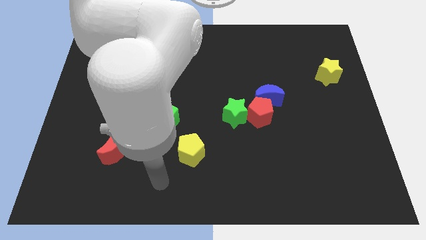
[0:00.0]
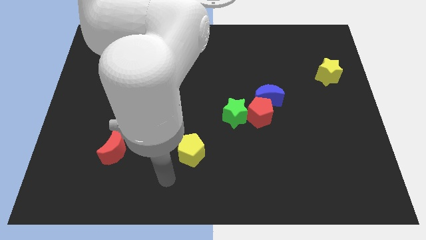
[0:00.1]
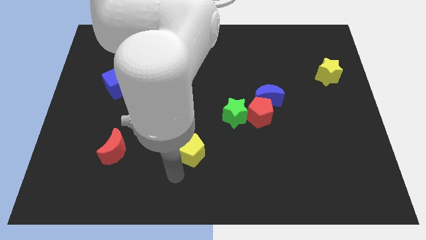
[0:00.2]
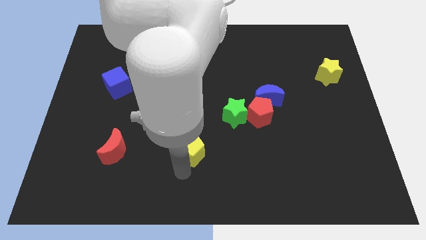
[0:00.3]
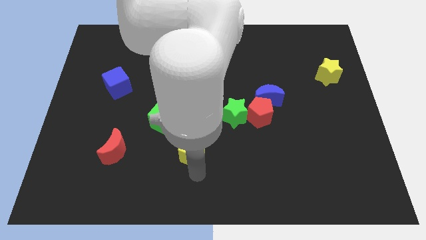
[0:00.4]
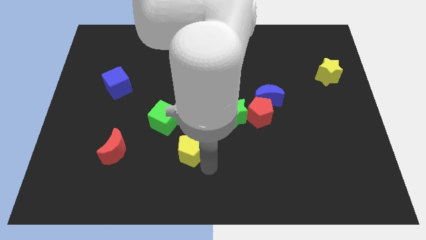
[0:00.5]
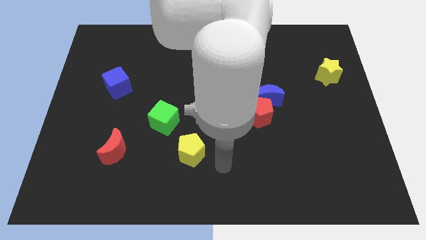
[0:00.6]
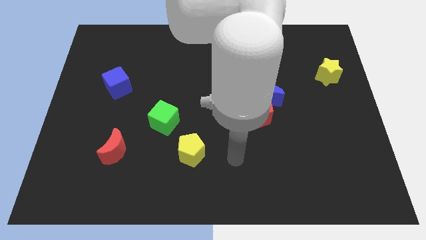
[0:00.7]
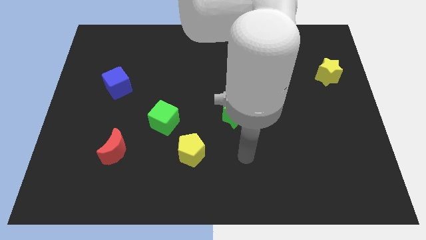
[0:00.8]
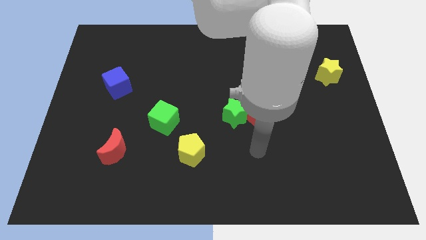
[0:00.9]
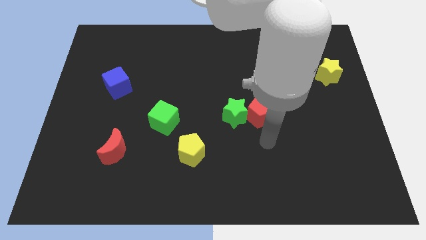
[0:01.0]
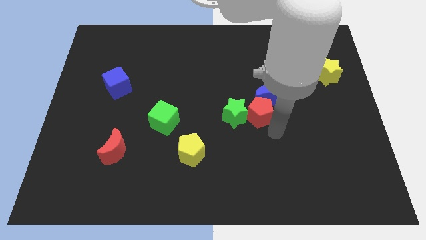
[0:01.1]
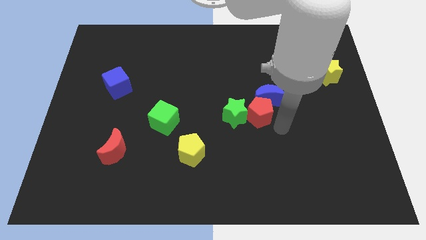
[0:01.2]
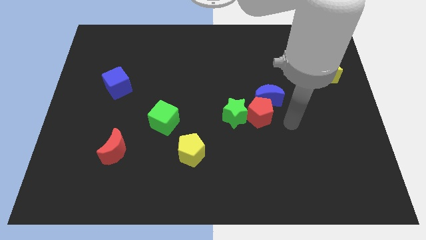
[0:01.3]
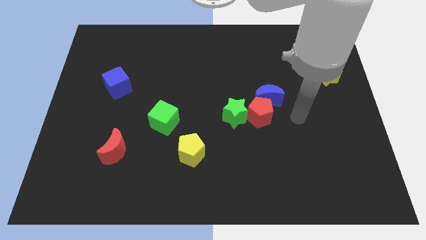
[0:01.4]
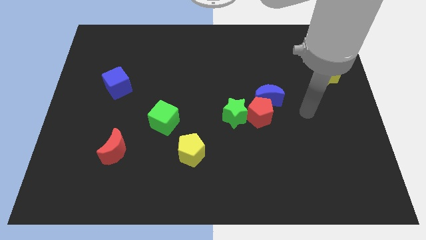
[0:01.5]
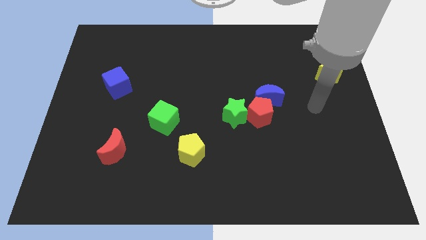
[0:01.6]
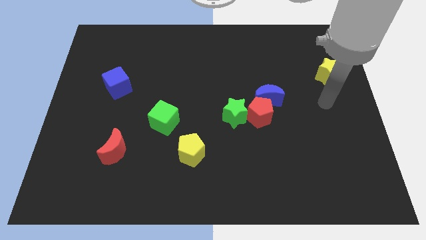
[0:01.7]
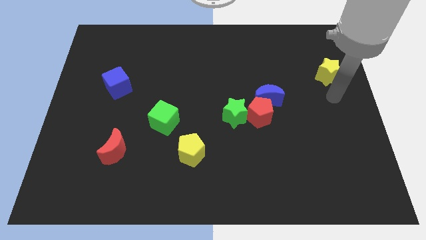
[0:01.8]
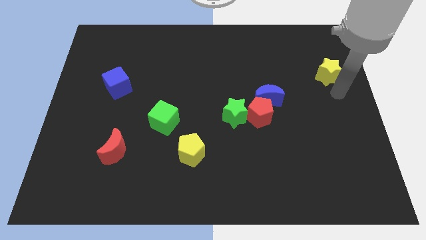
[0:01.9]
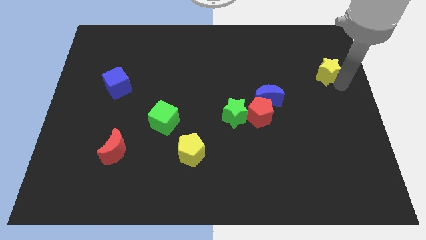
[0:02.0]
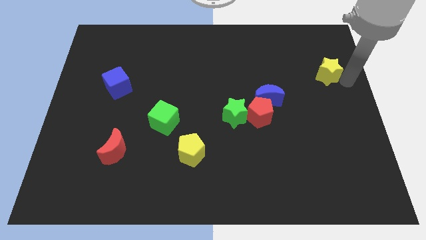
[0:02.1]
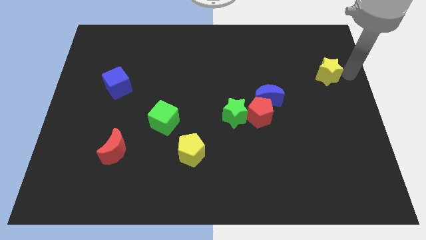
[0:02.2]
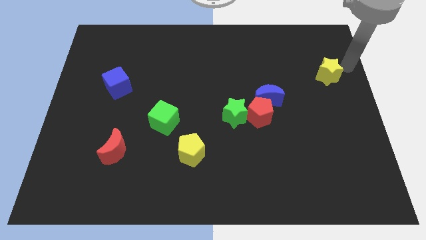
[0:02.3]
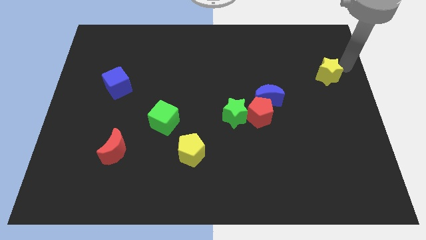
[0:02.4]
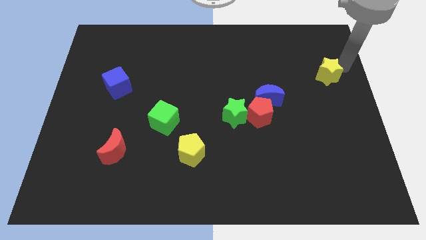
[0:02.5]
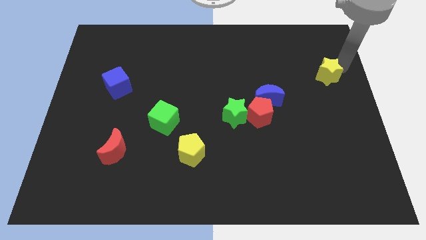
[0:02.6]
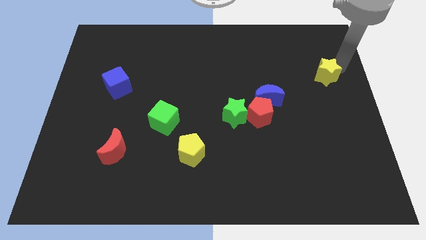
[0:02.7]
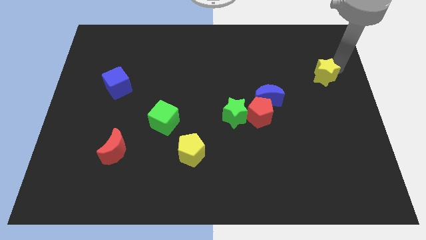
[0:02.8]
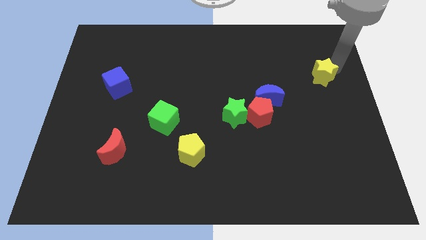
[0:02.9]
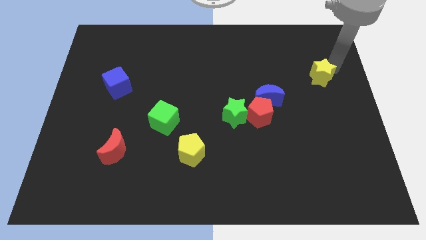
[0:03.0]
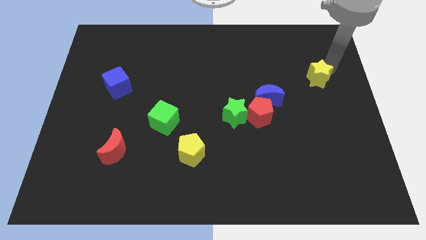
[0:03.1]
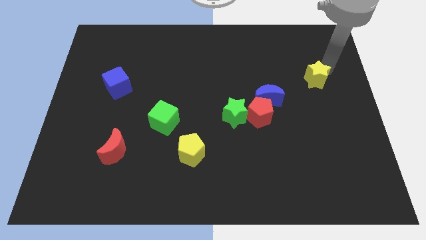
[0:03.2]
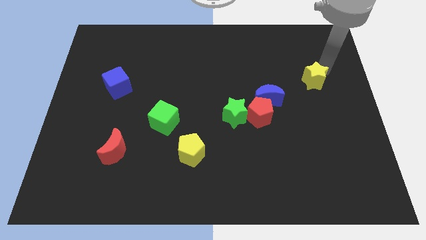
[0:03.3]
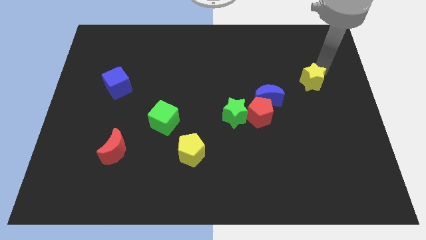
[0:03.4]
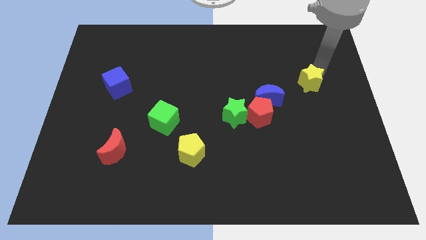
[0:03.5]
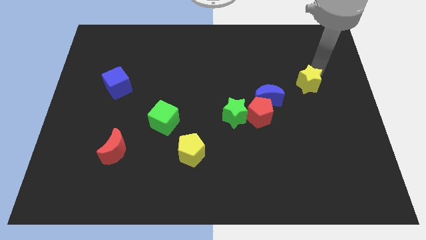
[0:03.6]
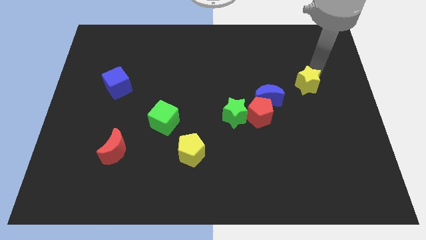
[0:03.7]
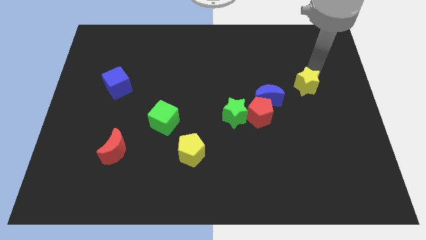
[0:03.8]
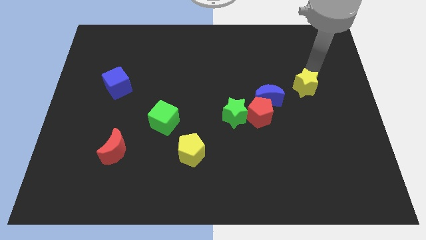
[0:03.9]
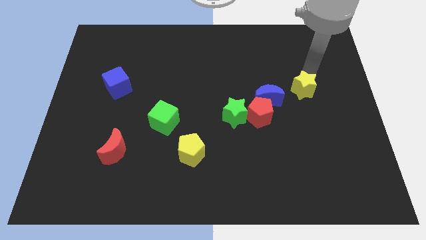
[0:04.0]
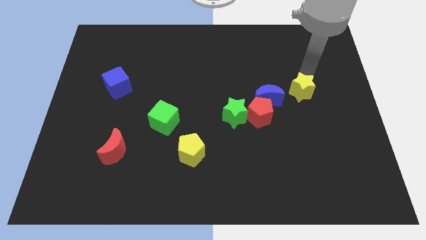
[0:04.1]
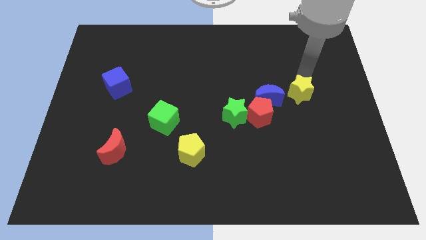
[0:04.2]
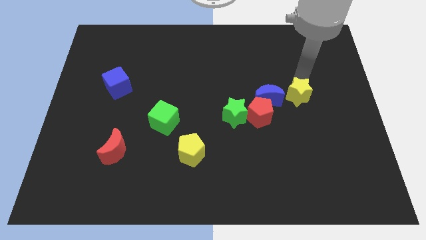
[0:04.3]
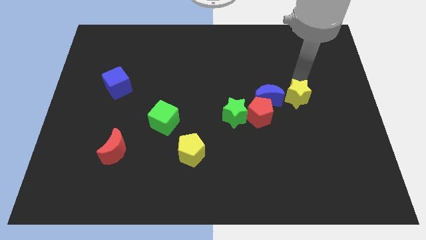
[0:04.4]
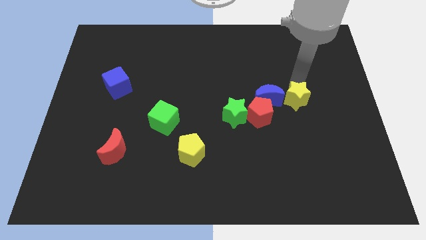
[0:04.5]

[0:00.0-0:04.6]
slide the yellow star to the bottom right side of the blue moon

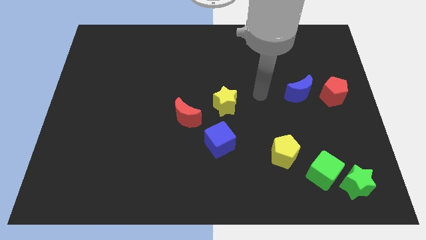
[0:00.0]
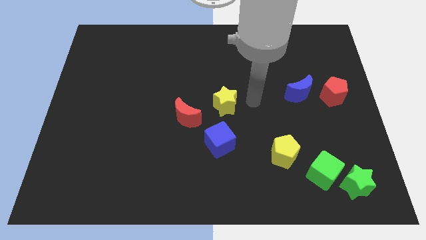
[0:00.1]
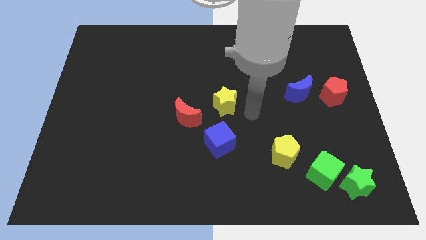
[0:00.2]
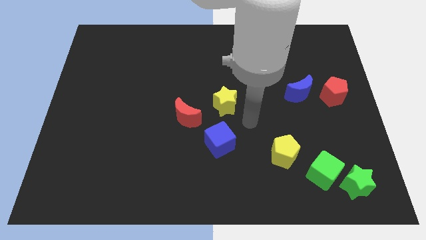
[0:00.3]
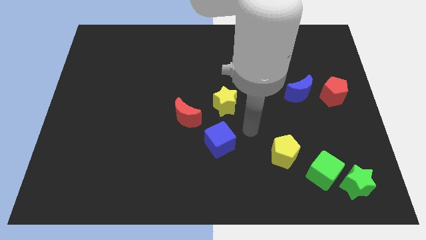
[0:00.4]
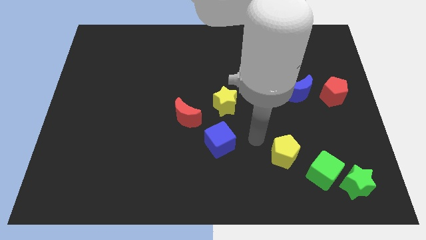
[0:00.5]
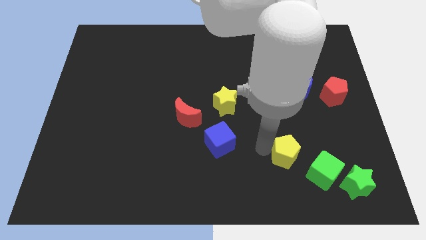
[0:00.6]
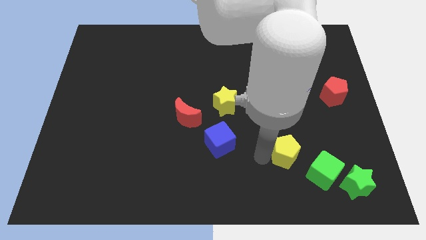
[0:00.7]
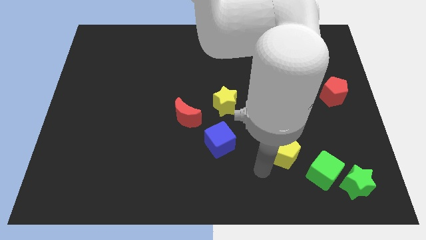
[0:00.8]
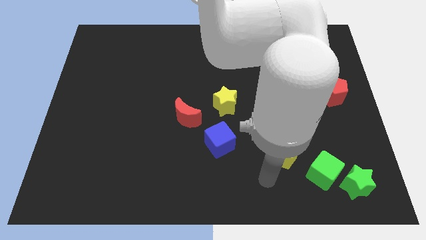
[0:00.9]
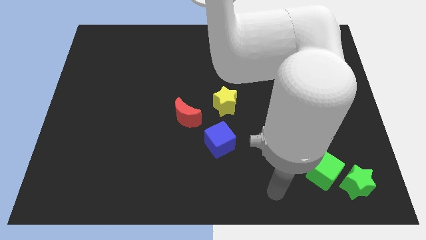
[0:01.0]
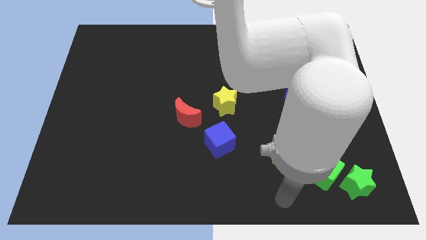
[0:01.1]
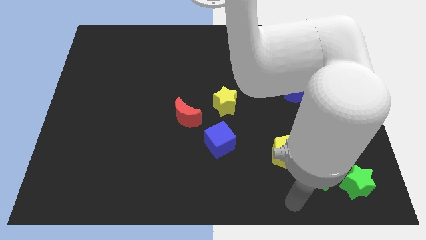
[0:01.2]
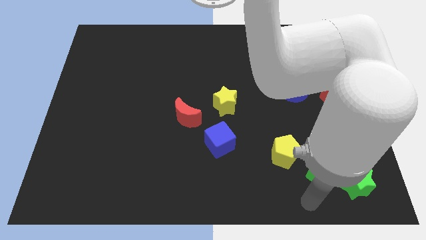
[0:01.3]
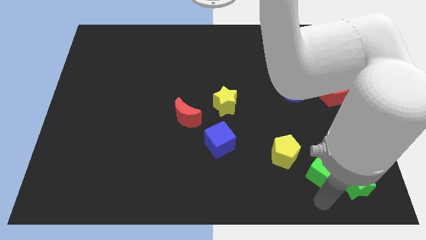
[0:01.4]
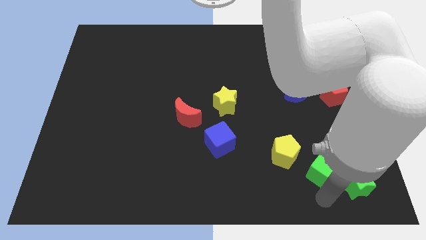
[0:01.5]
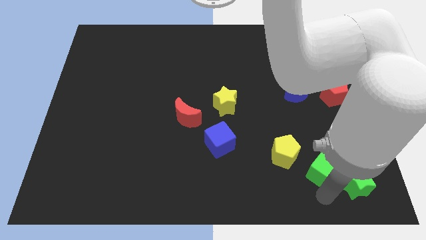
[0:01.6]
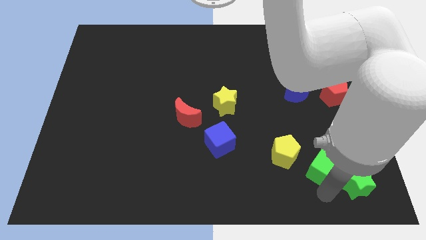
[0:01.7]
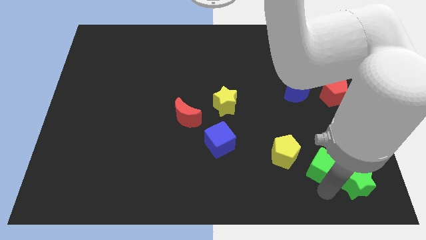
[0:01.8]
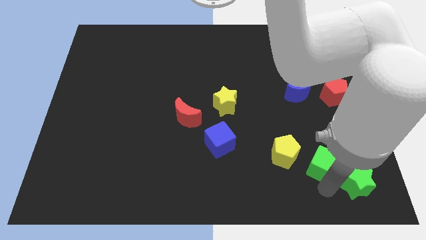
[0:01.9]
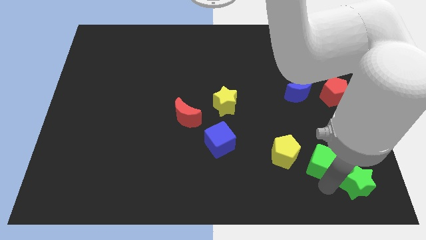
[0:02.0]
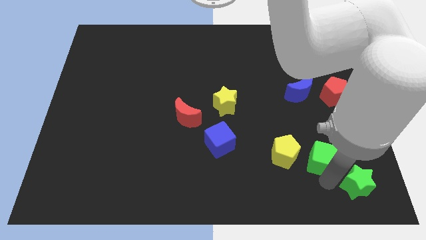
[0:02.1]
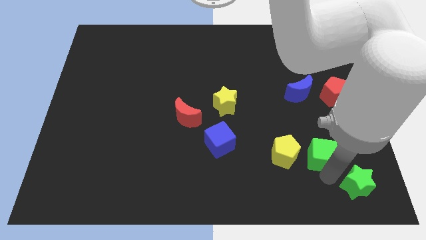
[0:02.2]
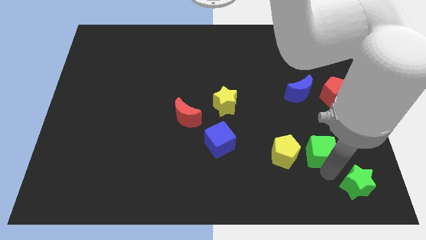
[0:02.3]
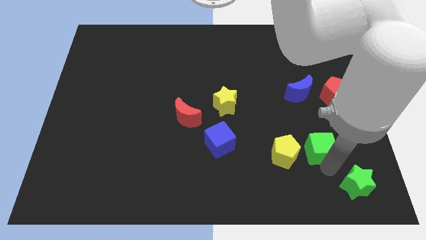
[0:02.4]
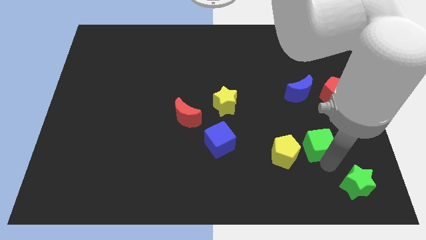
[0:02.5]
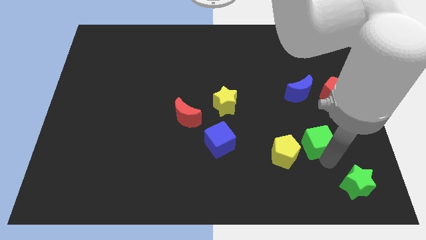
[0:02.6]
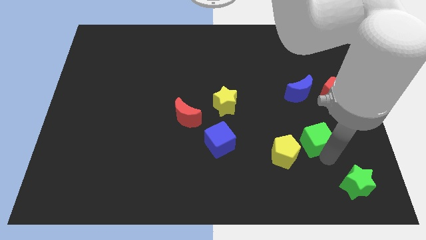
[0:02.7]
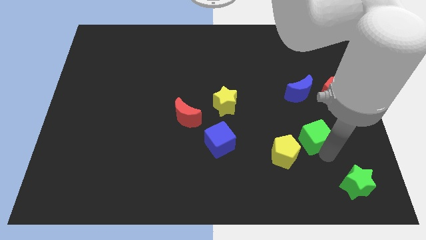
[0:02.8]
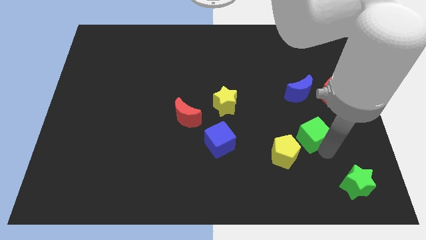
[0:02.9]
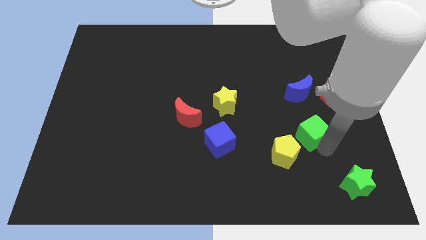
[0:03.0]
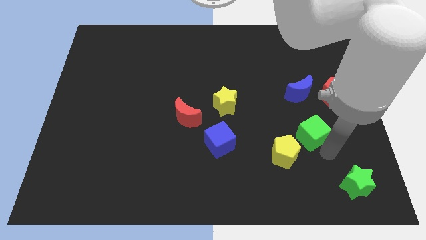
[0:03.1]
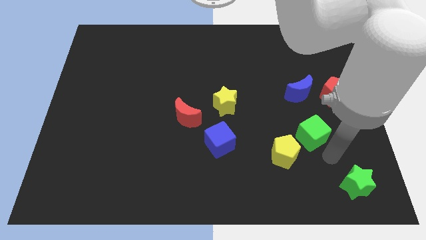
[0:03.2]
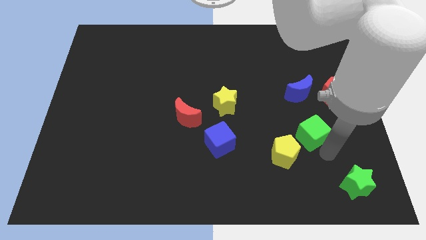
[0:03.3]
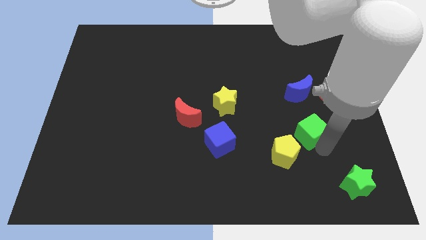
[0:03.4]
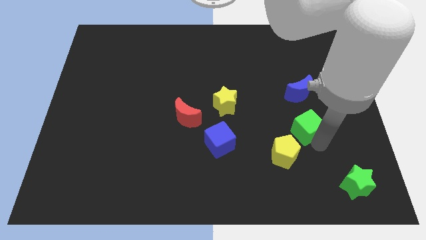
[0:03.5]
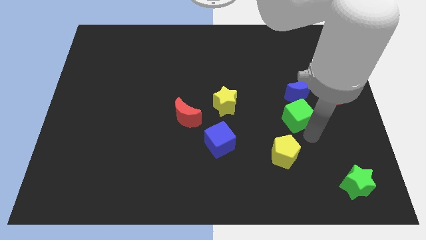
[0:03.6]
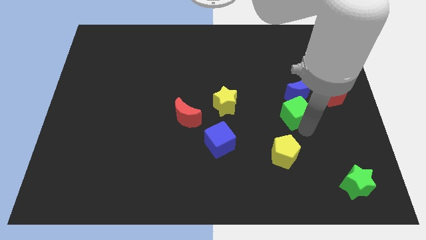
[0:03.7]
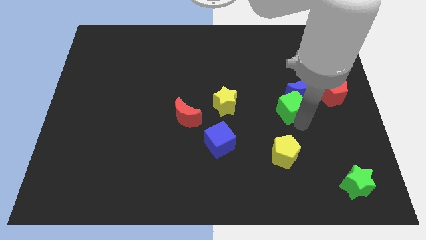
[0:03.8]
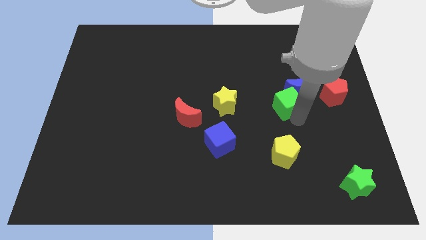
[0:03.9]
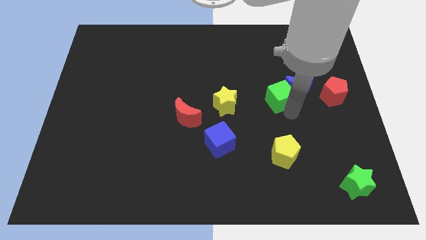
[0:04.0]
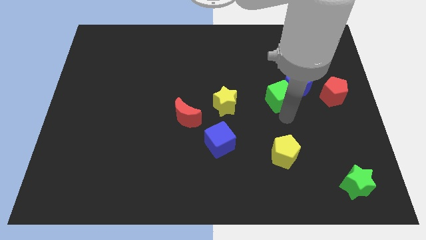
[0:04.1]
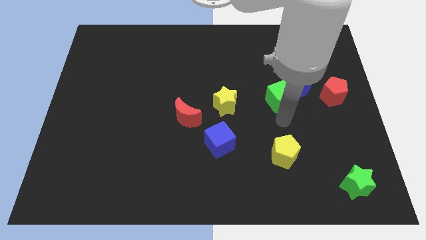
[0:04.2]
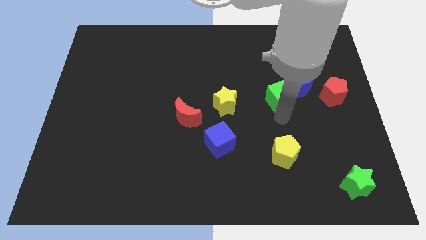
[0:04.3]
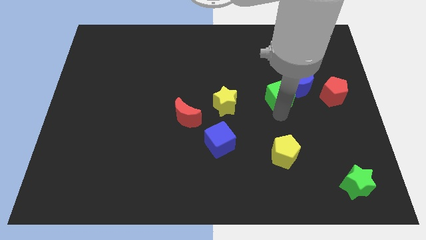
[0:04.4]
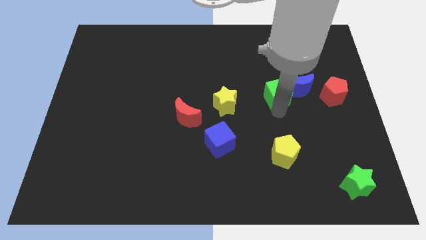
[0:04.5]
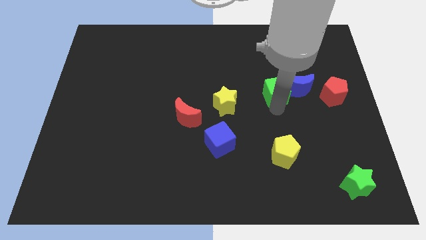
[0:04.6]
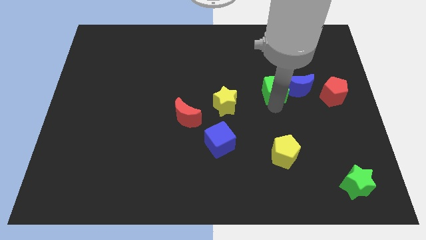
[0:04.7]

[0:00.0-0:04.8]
move the green cube to the top left side of the blue moon
